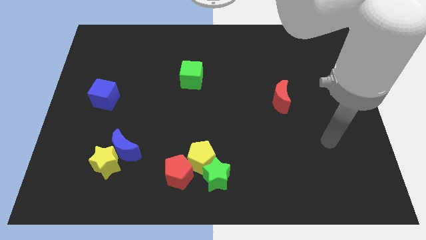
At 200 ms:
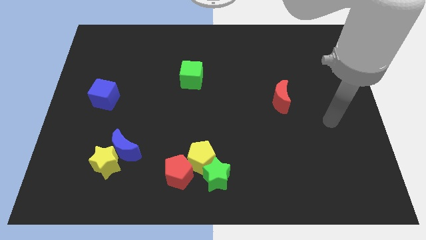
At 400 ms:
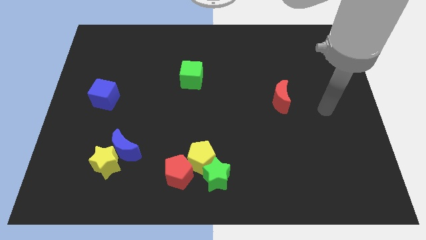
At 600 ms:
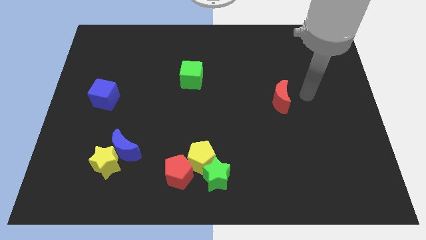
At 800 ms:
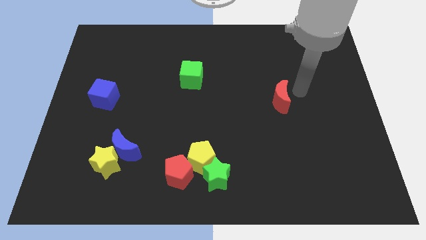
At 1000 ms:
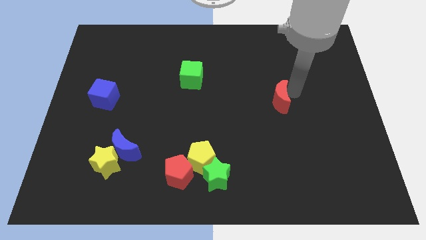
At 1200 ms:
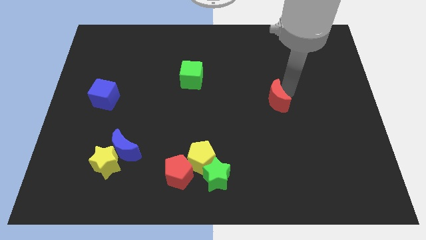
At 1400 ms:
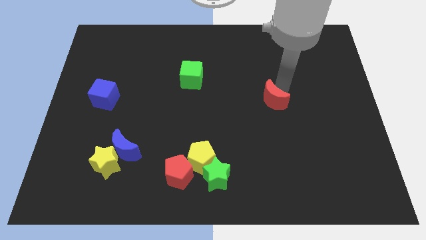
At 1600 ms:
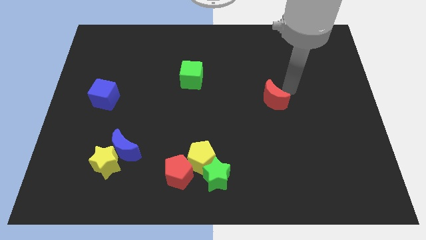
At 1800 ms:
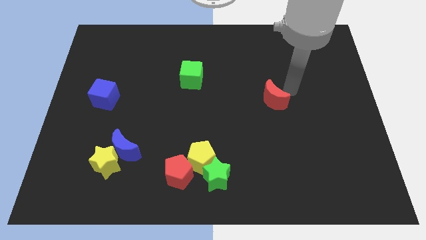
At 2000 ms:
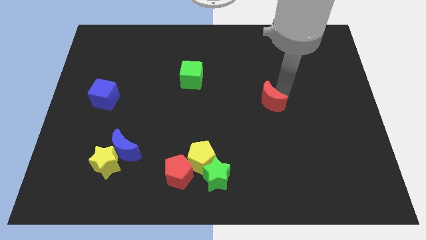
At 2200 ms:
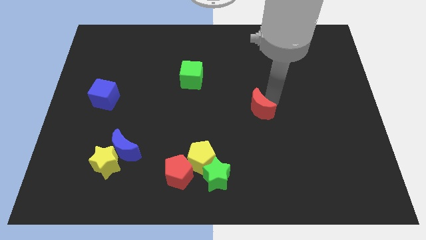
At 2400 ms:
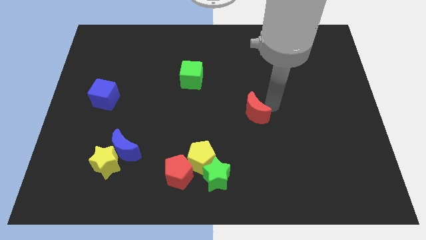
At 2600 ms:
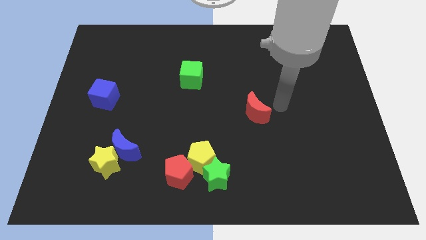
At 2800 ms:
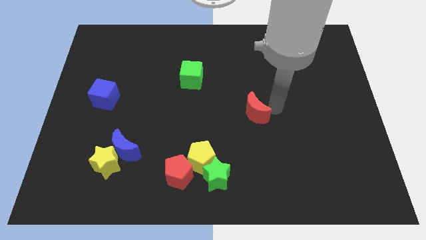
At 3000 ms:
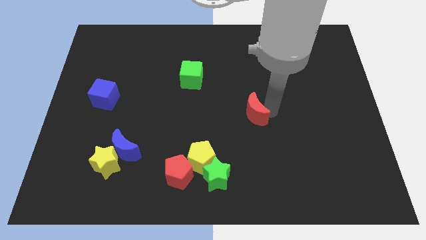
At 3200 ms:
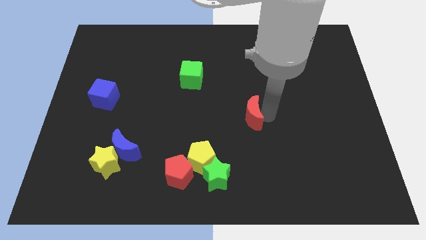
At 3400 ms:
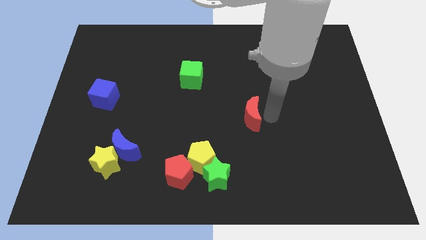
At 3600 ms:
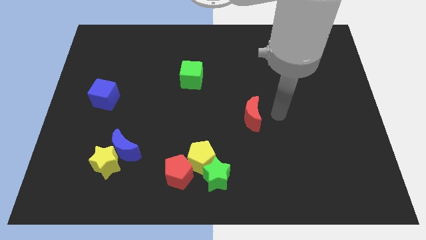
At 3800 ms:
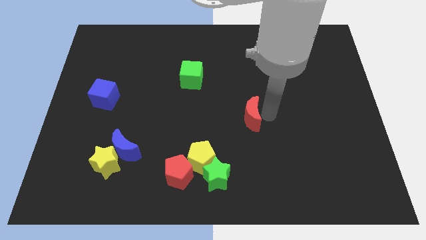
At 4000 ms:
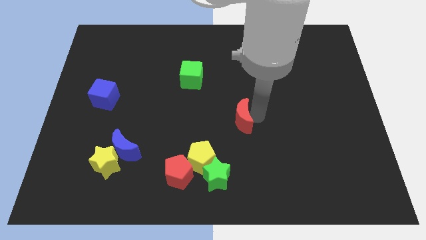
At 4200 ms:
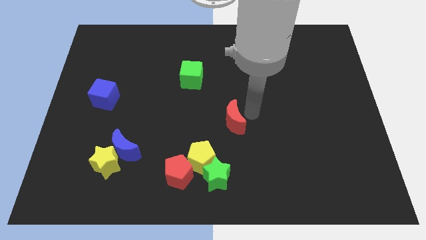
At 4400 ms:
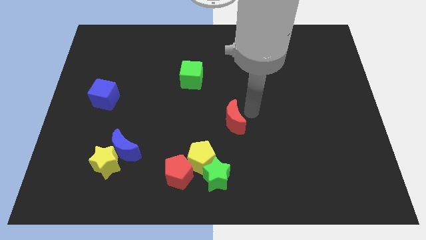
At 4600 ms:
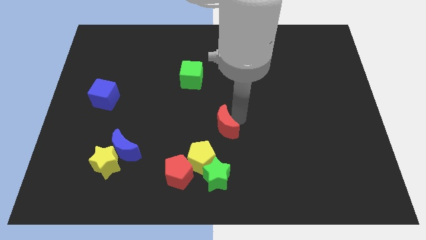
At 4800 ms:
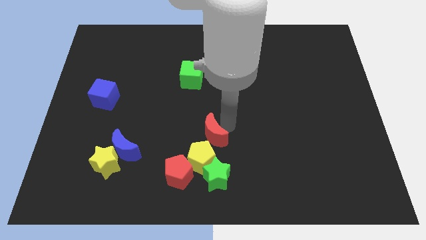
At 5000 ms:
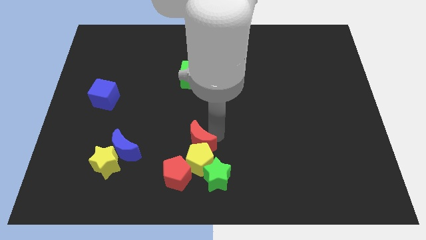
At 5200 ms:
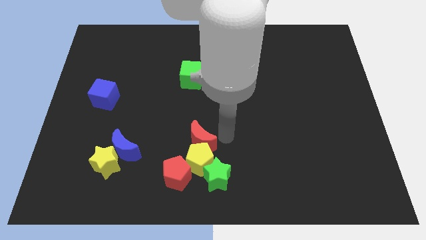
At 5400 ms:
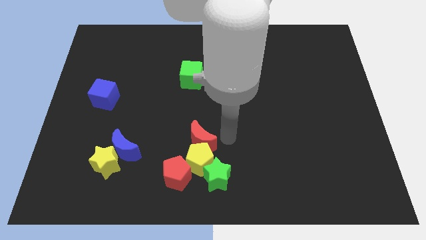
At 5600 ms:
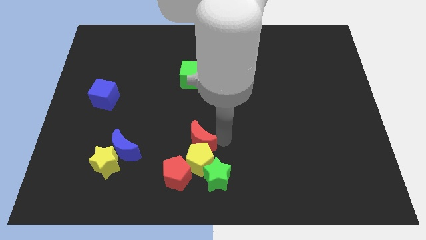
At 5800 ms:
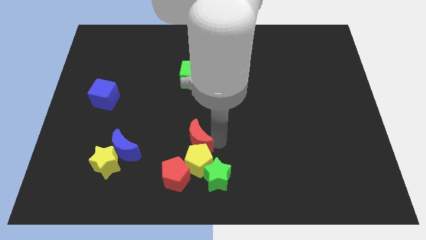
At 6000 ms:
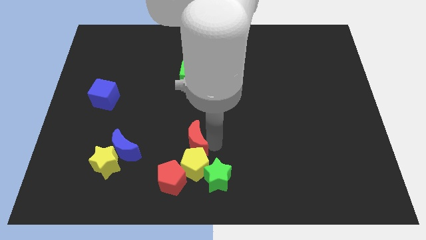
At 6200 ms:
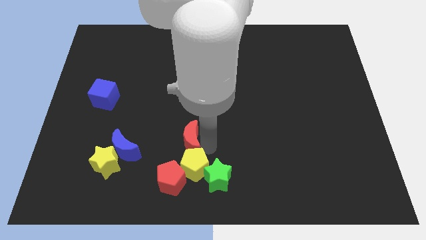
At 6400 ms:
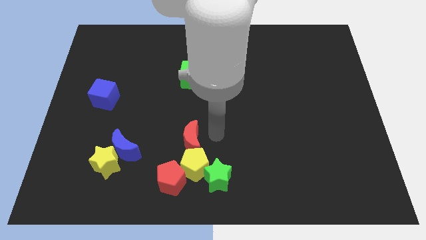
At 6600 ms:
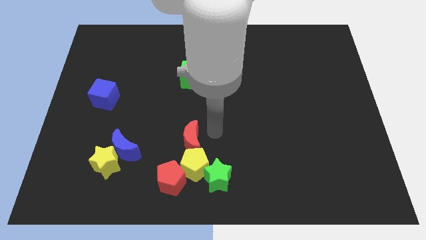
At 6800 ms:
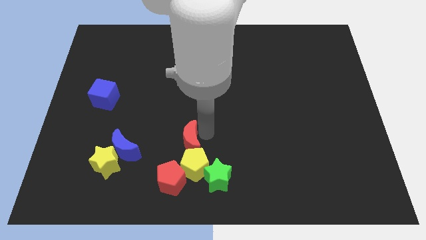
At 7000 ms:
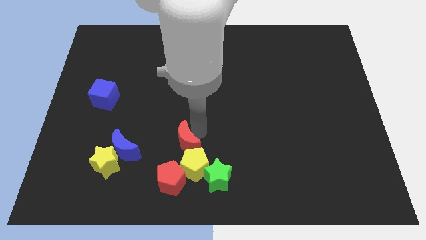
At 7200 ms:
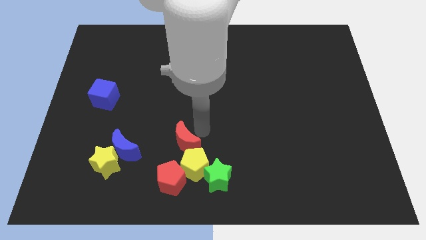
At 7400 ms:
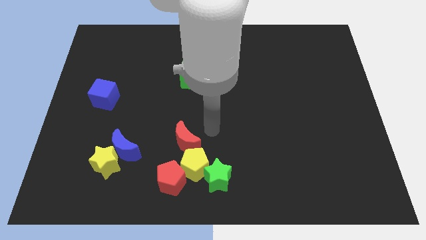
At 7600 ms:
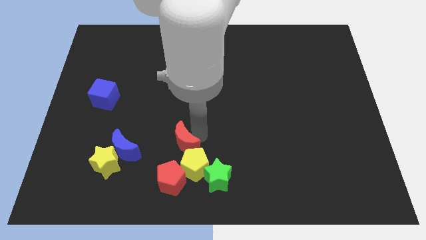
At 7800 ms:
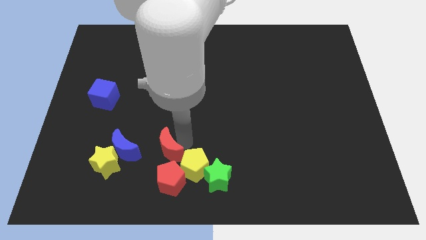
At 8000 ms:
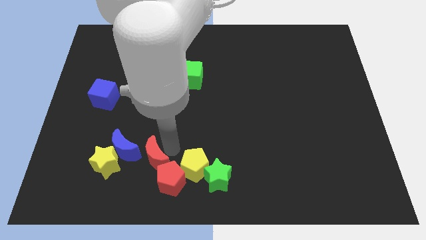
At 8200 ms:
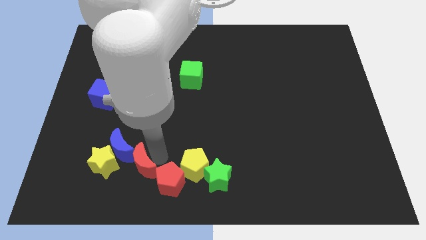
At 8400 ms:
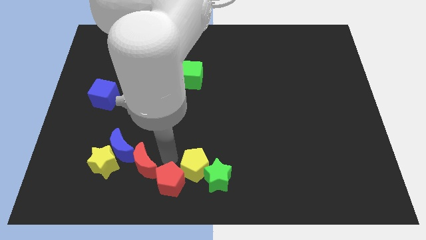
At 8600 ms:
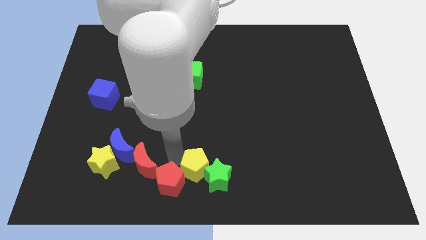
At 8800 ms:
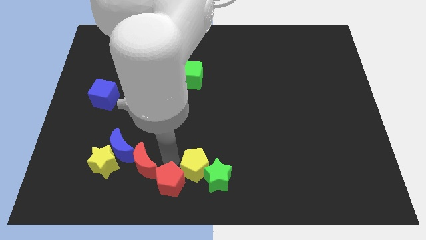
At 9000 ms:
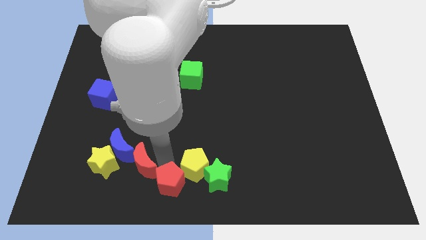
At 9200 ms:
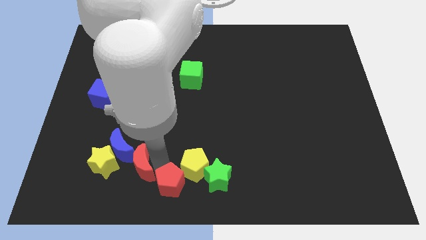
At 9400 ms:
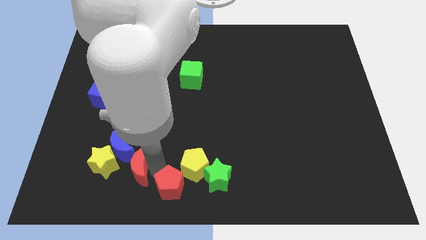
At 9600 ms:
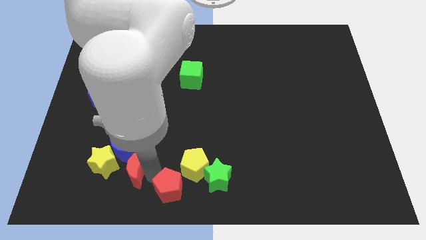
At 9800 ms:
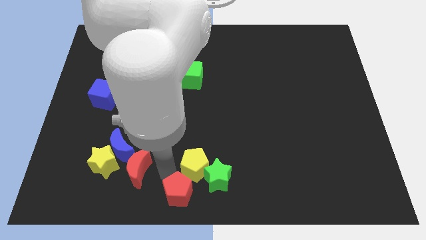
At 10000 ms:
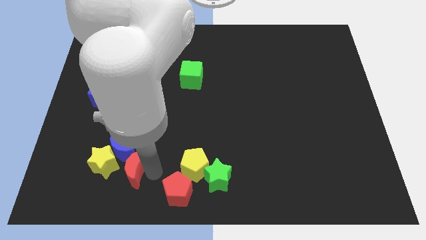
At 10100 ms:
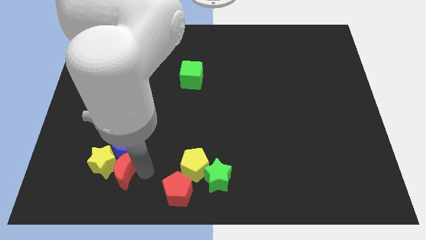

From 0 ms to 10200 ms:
put the red moon close to the yellow star

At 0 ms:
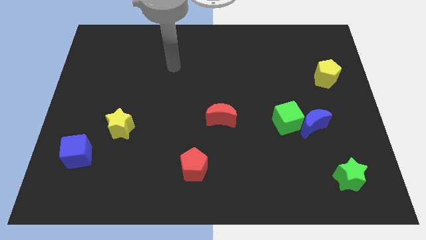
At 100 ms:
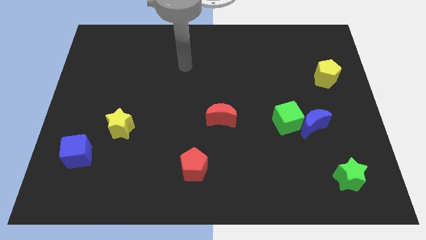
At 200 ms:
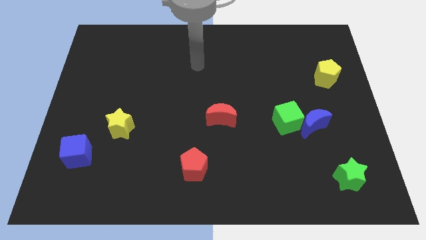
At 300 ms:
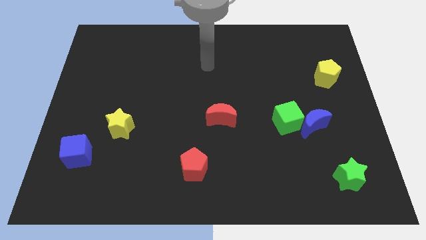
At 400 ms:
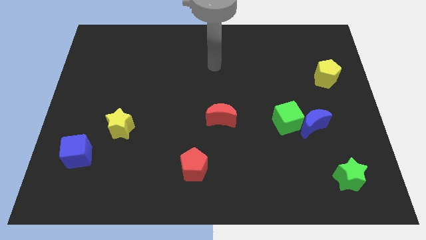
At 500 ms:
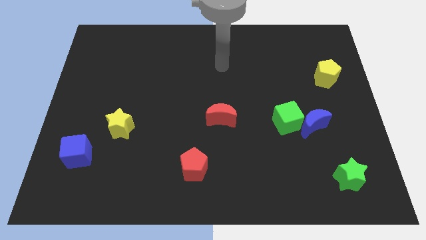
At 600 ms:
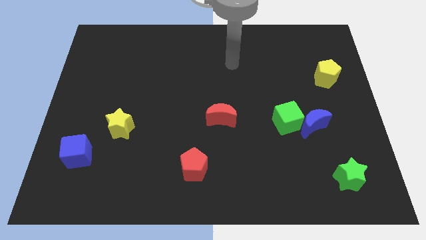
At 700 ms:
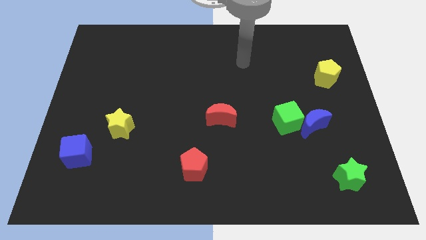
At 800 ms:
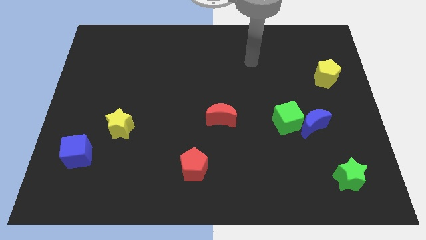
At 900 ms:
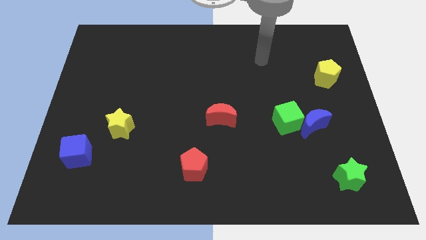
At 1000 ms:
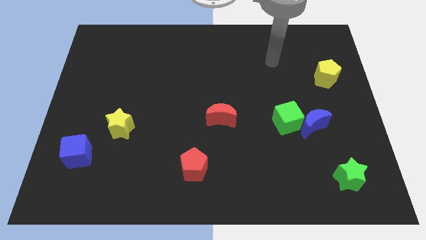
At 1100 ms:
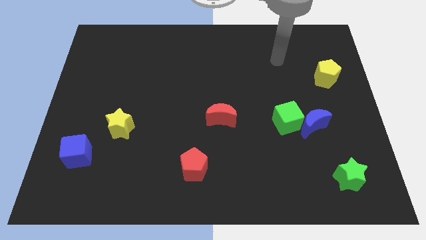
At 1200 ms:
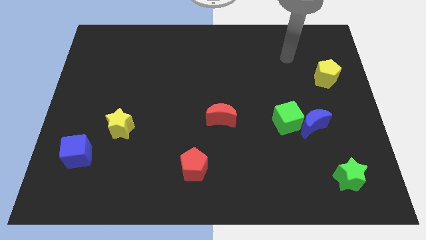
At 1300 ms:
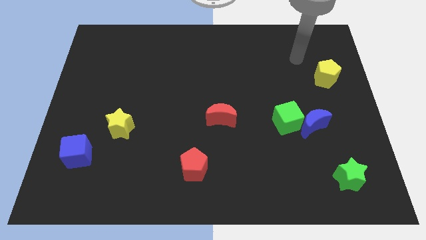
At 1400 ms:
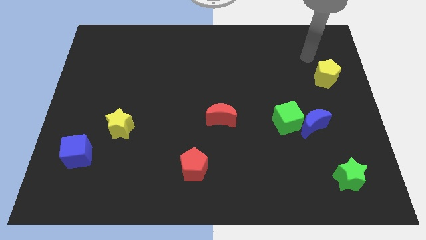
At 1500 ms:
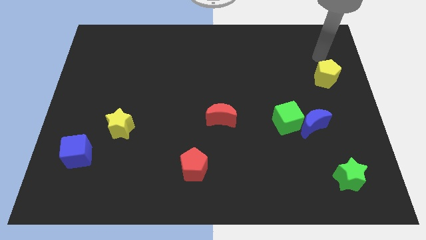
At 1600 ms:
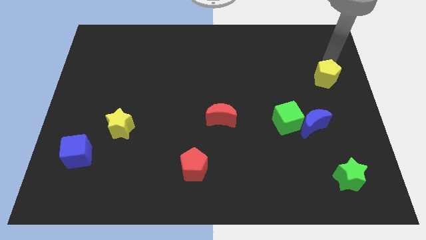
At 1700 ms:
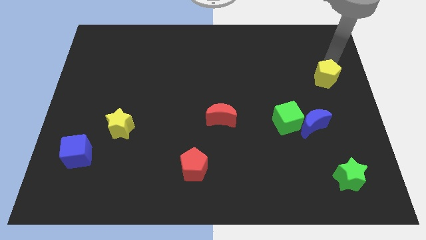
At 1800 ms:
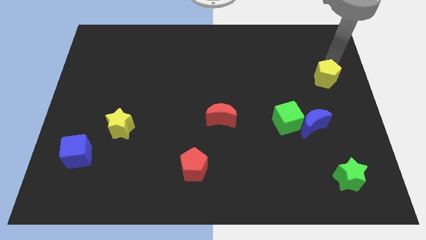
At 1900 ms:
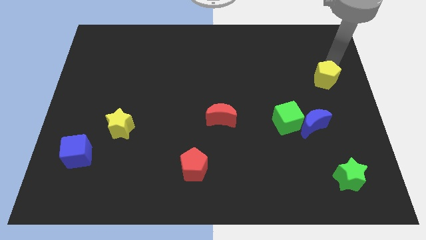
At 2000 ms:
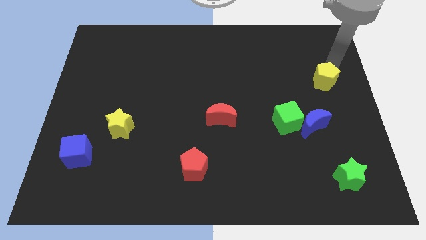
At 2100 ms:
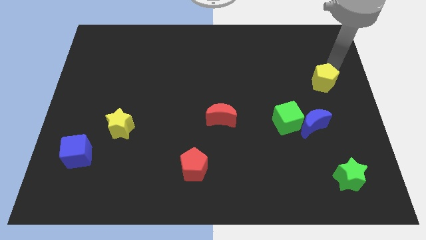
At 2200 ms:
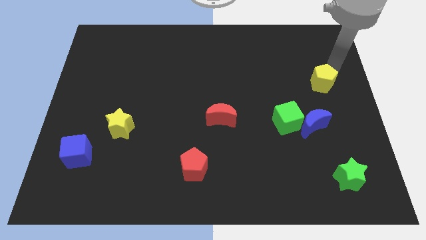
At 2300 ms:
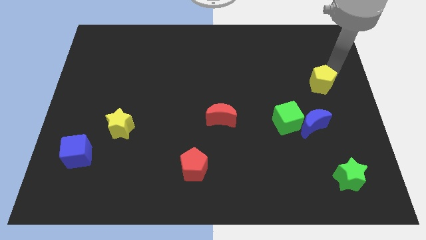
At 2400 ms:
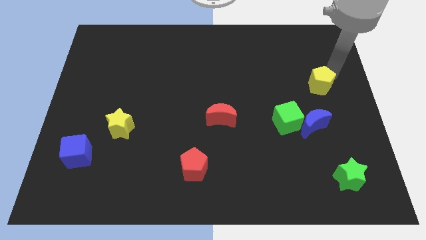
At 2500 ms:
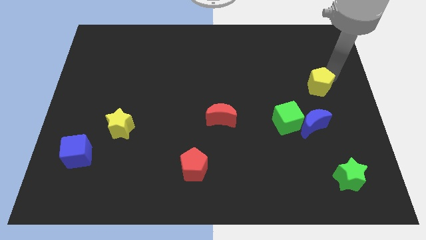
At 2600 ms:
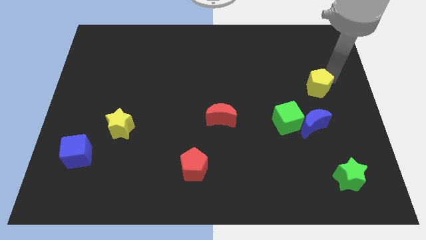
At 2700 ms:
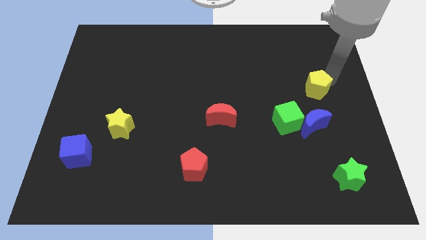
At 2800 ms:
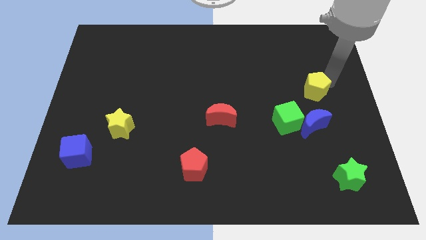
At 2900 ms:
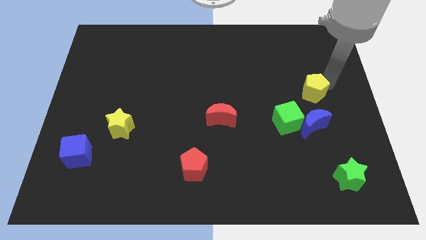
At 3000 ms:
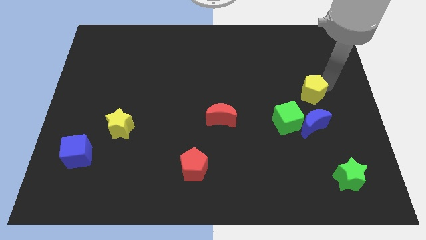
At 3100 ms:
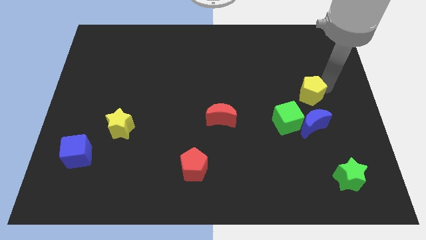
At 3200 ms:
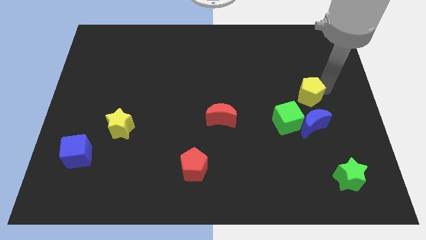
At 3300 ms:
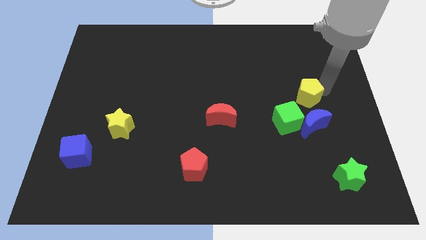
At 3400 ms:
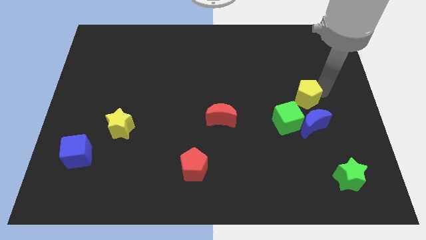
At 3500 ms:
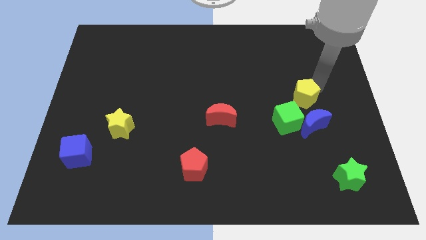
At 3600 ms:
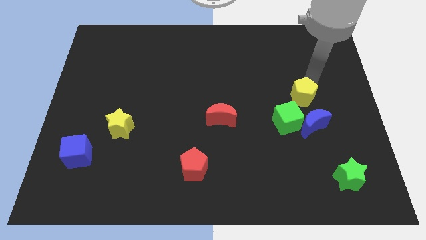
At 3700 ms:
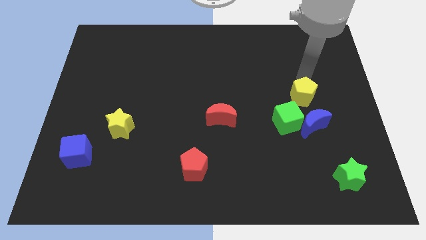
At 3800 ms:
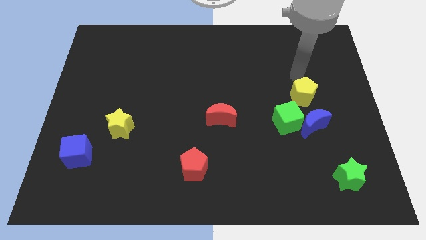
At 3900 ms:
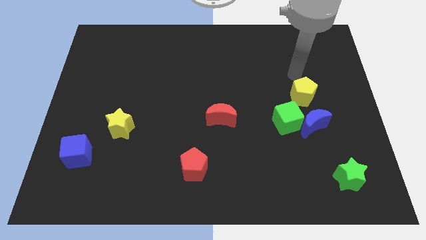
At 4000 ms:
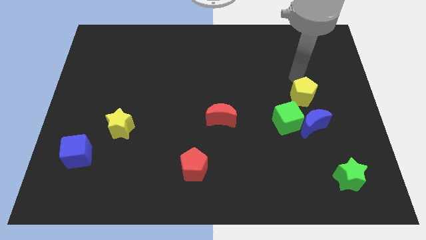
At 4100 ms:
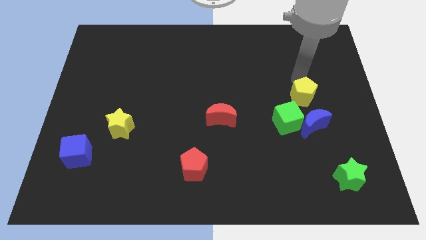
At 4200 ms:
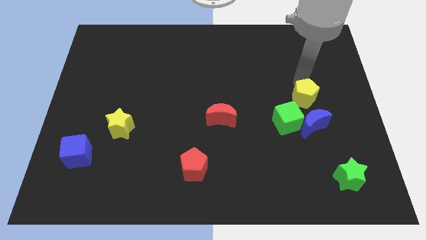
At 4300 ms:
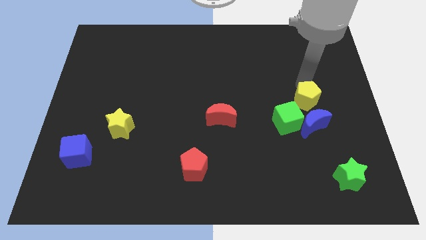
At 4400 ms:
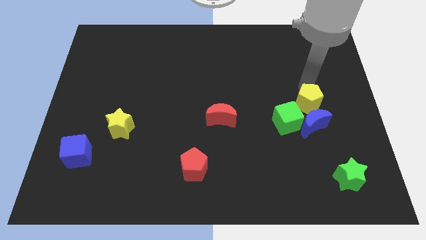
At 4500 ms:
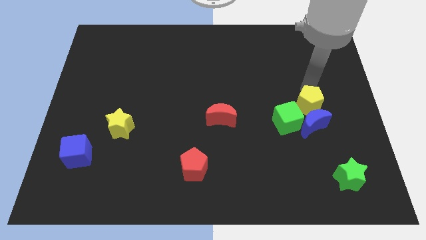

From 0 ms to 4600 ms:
put the yellow pentagon to the blue moon
